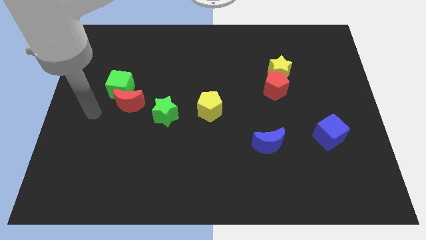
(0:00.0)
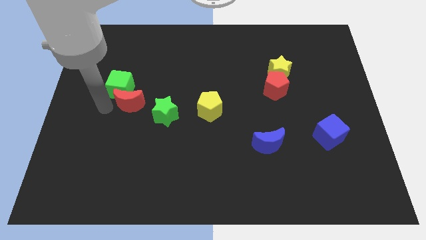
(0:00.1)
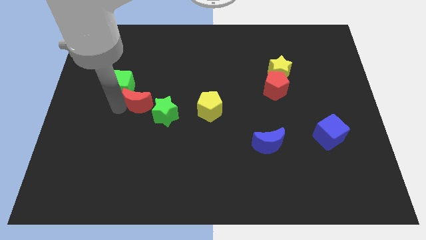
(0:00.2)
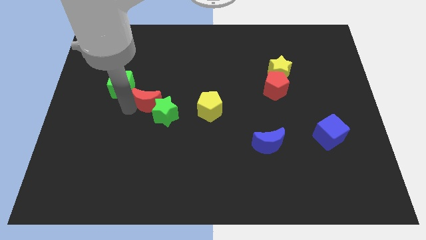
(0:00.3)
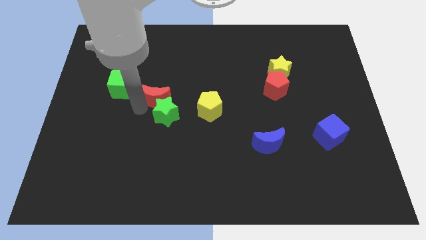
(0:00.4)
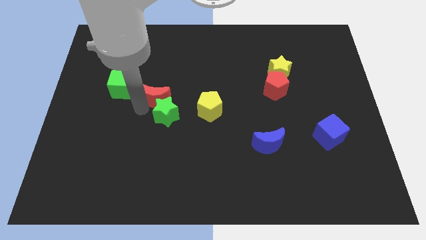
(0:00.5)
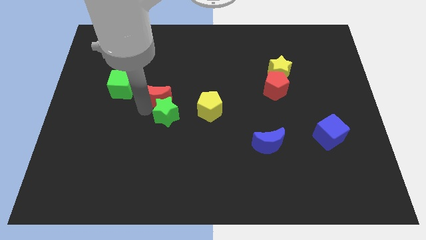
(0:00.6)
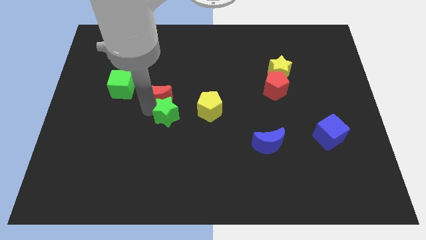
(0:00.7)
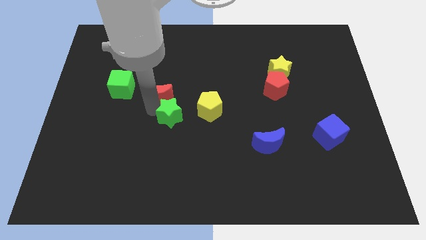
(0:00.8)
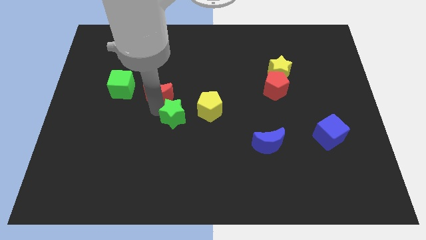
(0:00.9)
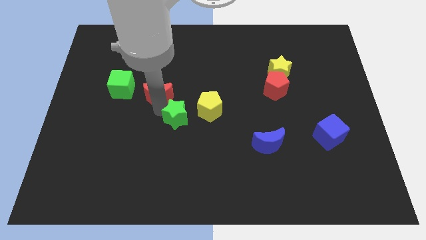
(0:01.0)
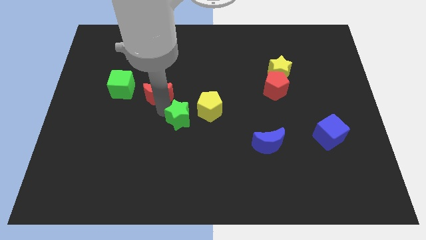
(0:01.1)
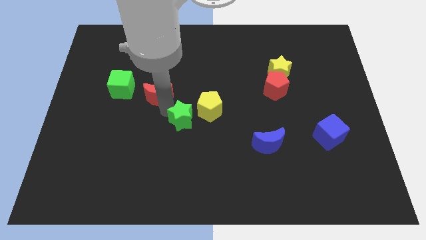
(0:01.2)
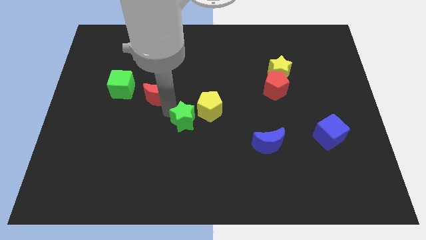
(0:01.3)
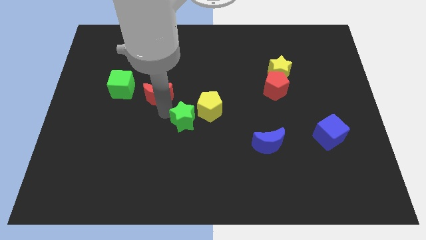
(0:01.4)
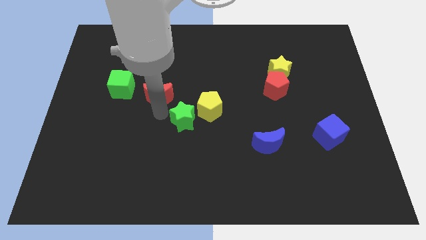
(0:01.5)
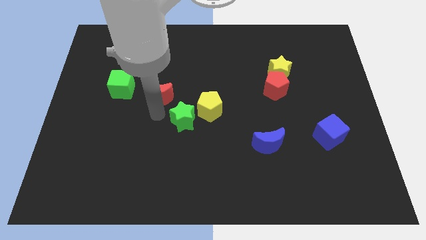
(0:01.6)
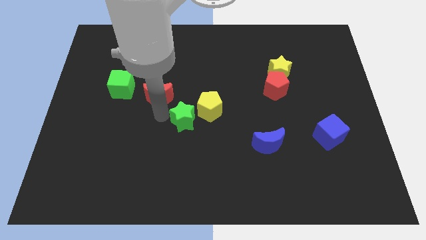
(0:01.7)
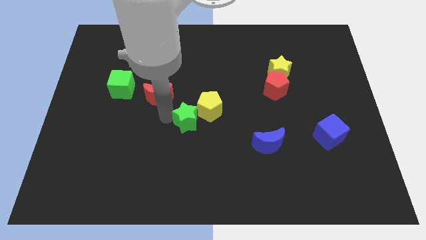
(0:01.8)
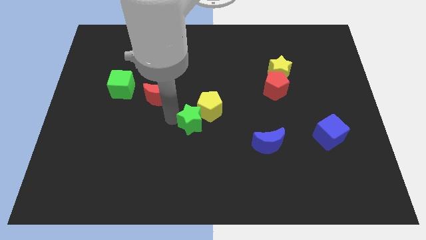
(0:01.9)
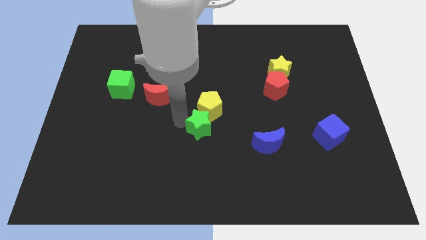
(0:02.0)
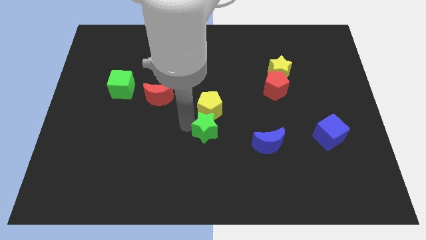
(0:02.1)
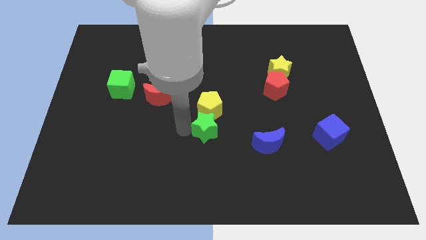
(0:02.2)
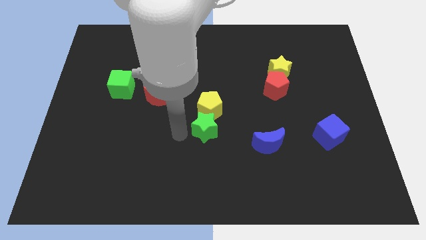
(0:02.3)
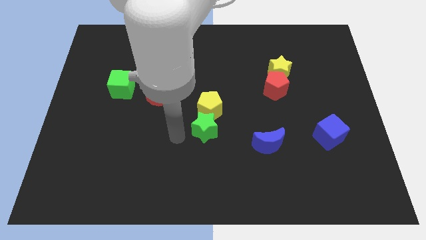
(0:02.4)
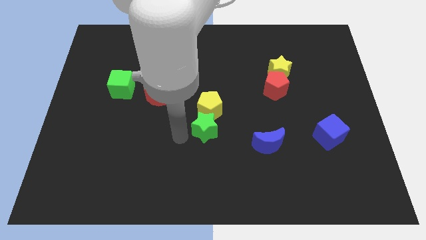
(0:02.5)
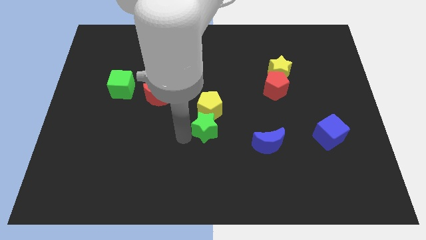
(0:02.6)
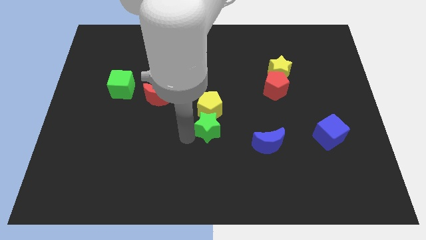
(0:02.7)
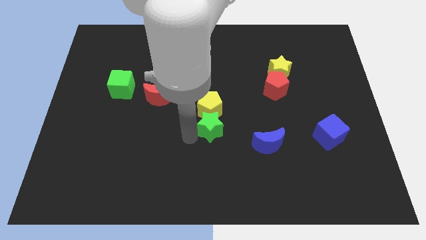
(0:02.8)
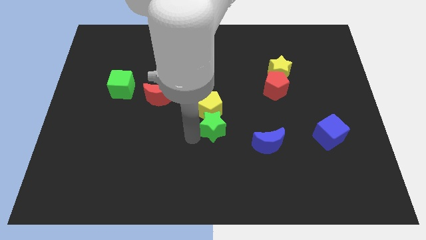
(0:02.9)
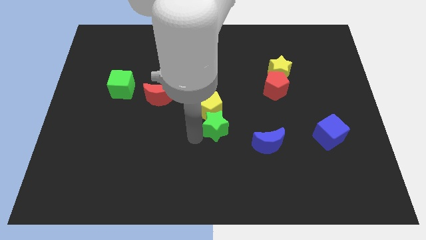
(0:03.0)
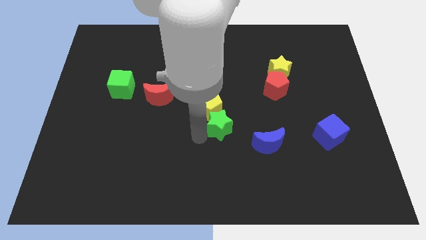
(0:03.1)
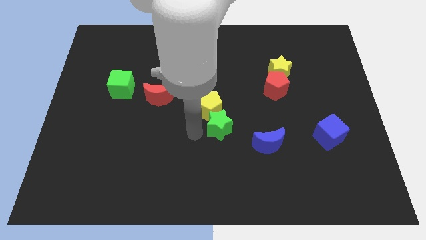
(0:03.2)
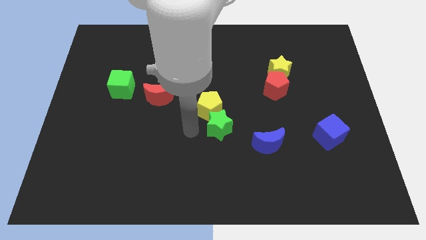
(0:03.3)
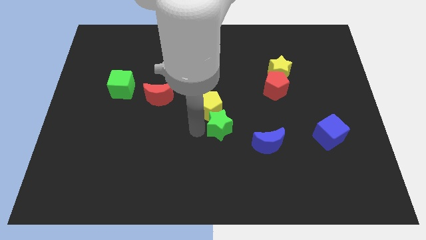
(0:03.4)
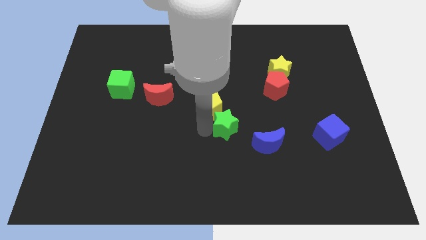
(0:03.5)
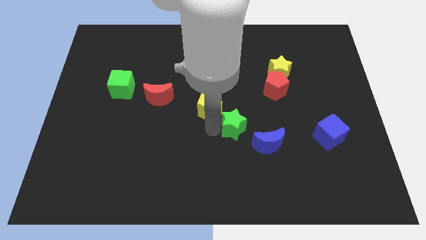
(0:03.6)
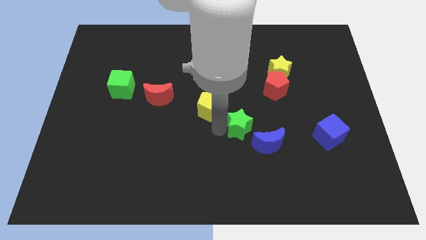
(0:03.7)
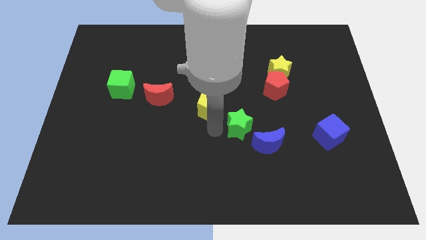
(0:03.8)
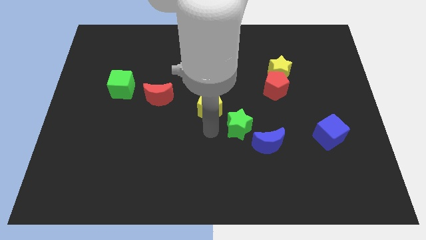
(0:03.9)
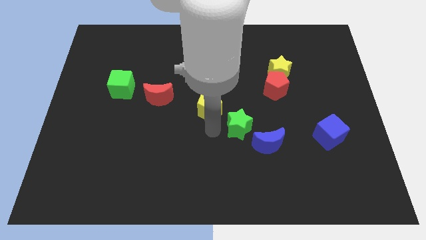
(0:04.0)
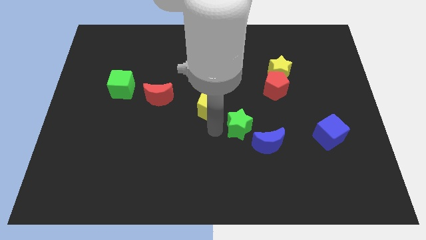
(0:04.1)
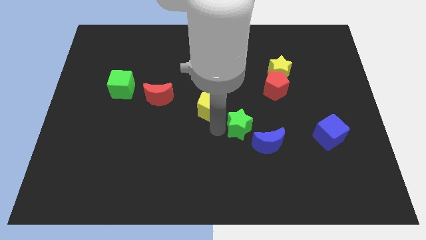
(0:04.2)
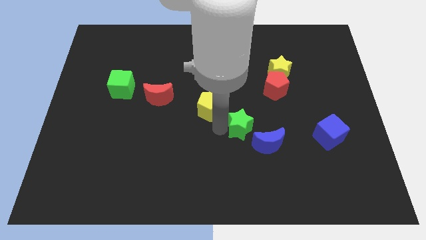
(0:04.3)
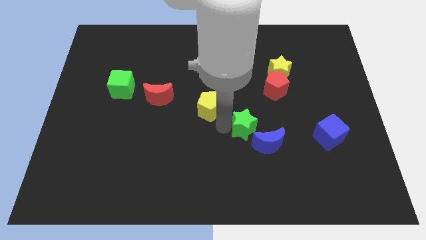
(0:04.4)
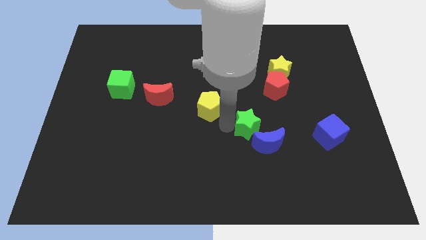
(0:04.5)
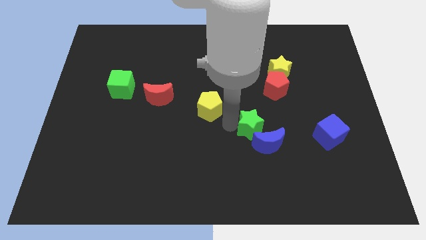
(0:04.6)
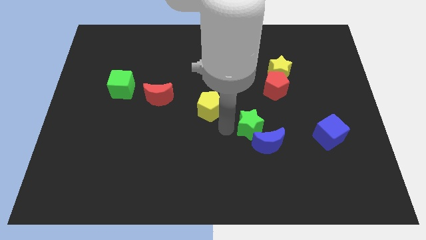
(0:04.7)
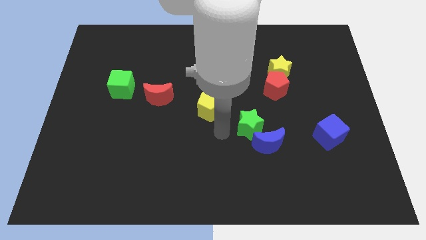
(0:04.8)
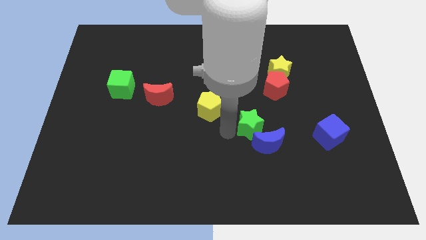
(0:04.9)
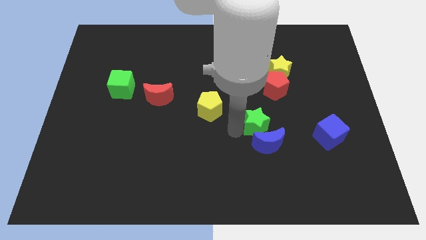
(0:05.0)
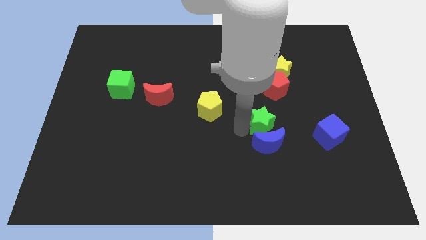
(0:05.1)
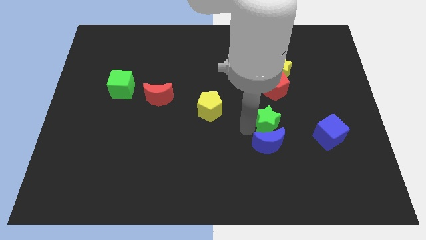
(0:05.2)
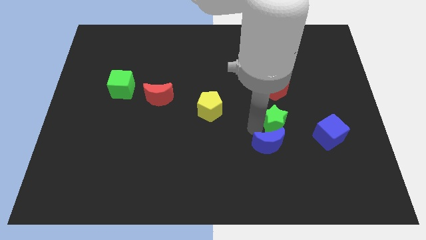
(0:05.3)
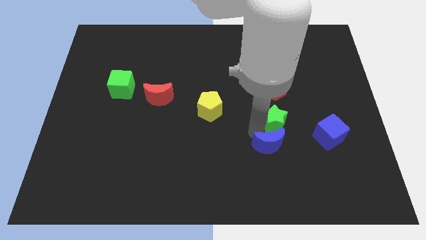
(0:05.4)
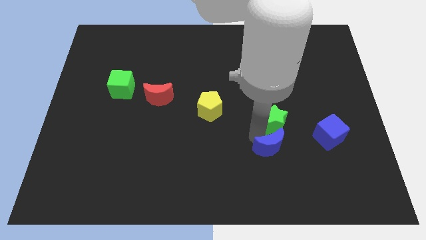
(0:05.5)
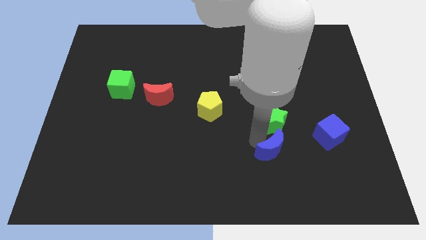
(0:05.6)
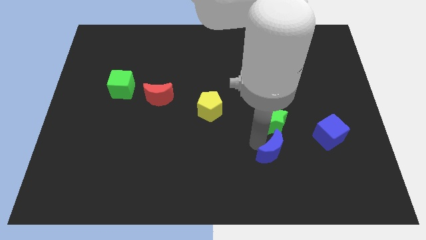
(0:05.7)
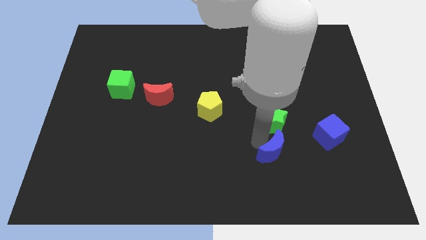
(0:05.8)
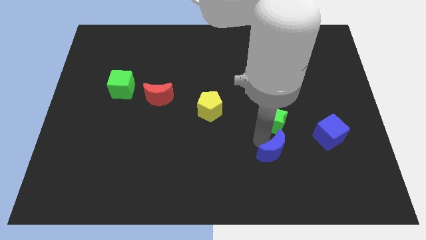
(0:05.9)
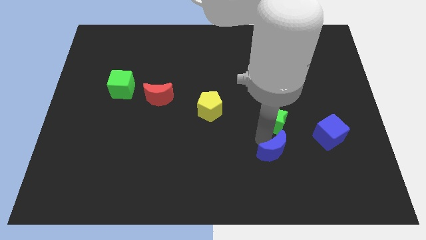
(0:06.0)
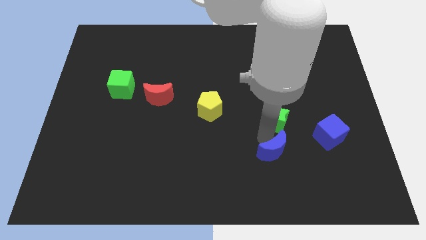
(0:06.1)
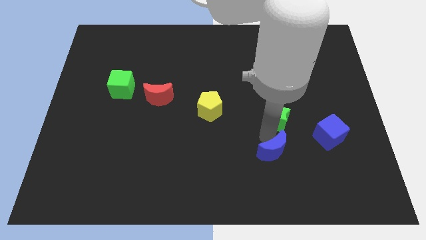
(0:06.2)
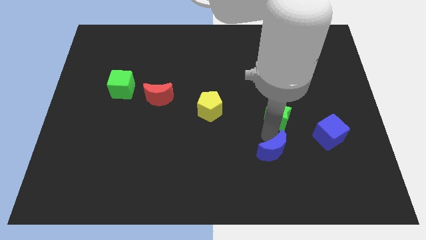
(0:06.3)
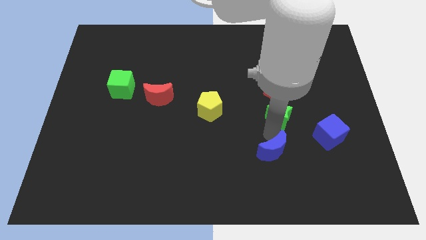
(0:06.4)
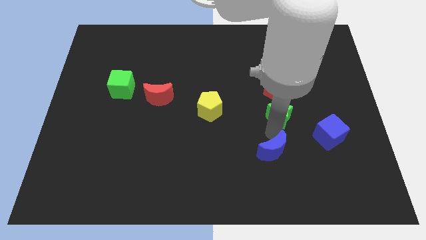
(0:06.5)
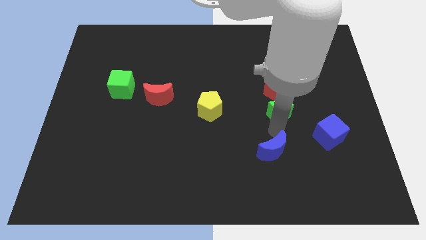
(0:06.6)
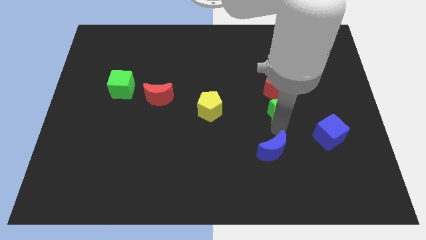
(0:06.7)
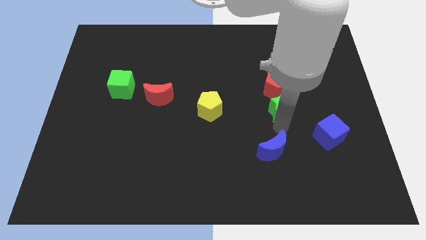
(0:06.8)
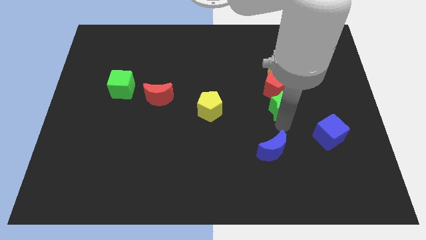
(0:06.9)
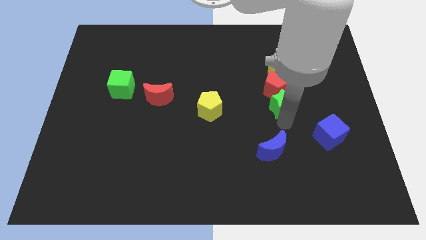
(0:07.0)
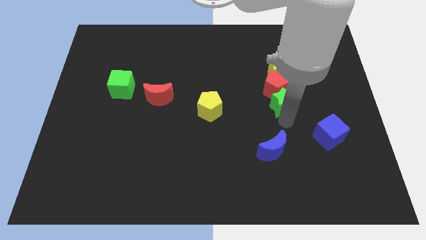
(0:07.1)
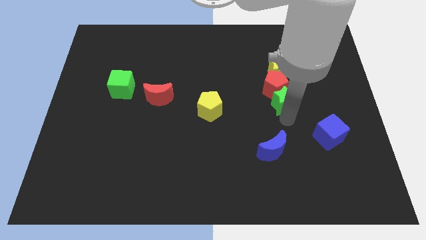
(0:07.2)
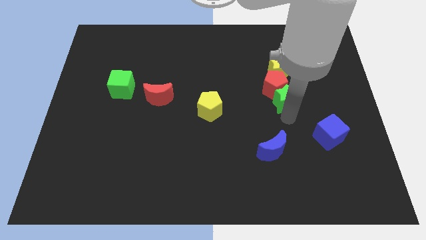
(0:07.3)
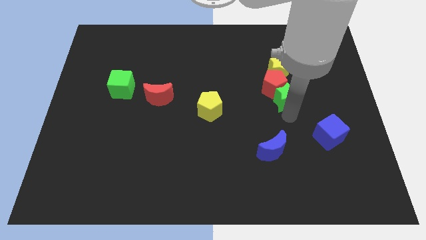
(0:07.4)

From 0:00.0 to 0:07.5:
put the green star right of the red pentagon

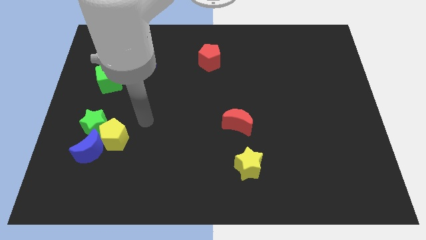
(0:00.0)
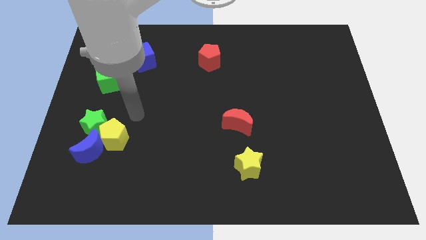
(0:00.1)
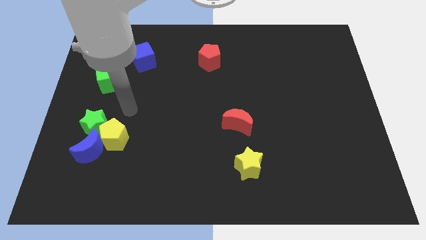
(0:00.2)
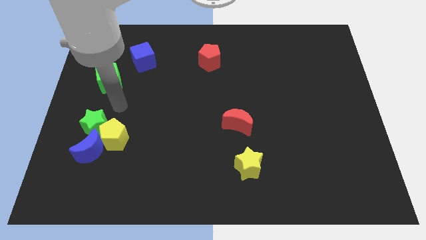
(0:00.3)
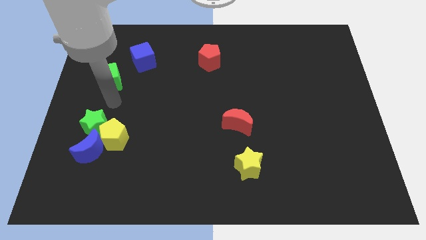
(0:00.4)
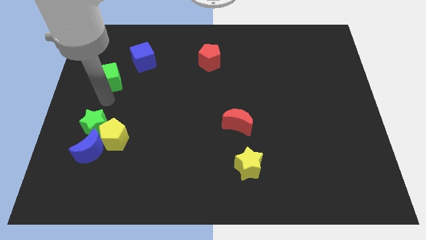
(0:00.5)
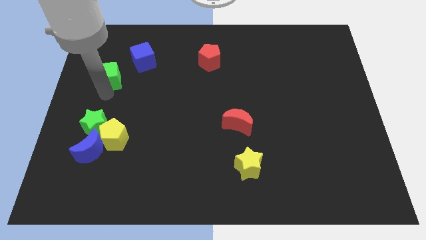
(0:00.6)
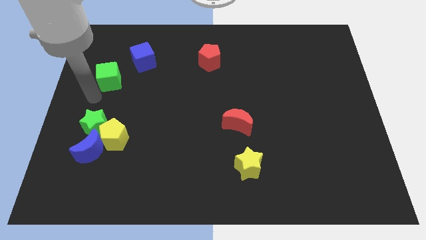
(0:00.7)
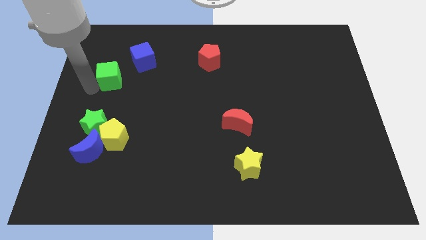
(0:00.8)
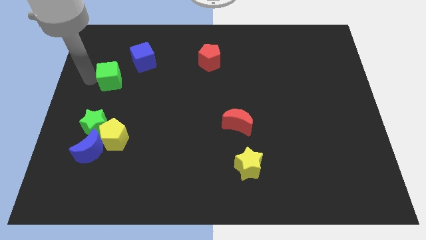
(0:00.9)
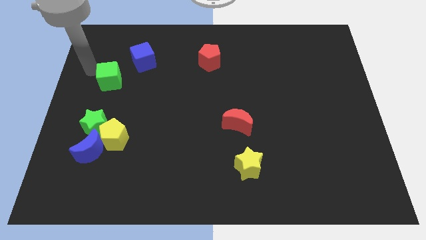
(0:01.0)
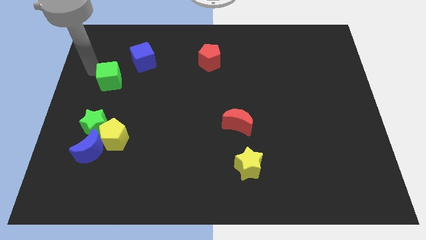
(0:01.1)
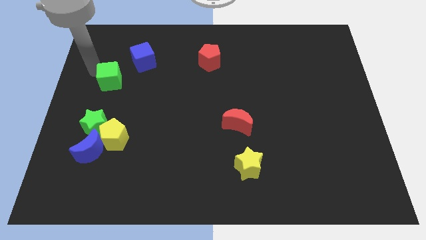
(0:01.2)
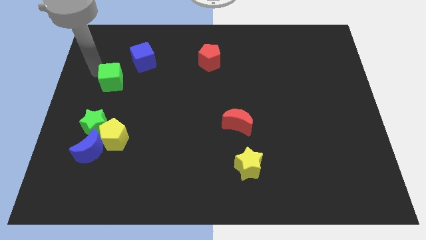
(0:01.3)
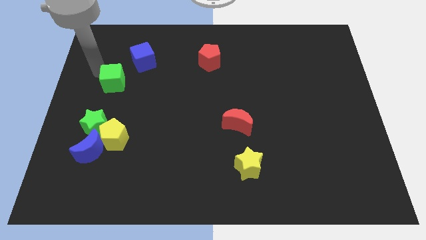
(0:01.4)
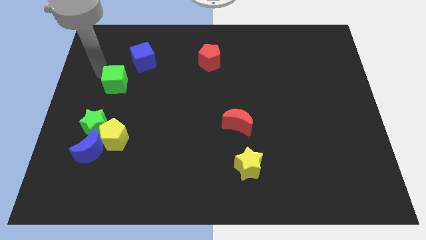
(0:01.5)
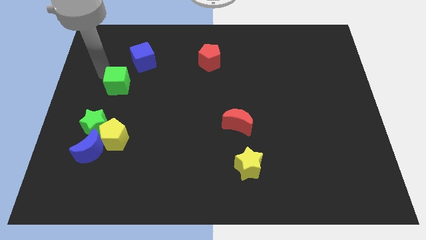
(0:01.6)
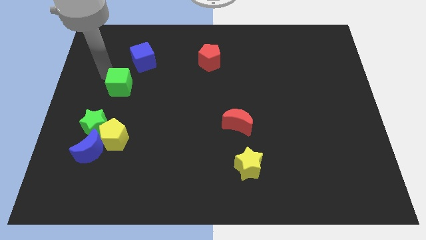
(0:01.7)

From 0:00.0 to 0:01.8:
move the green cube to the bottom side of the blue cube
